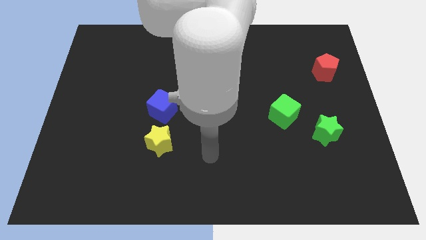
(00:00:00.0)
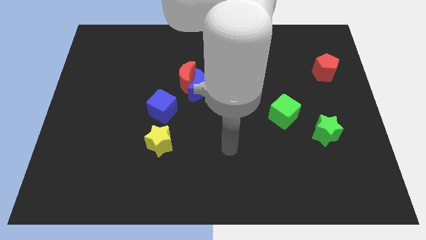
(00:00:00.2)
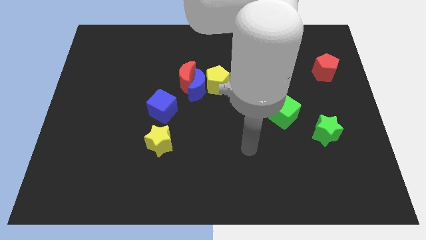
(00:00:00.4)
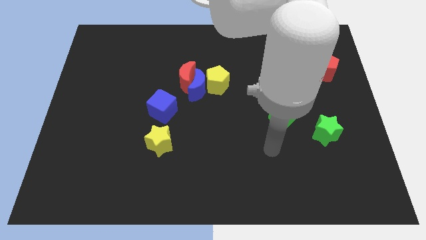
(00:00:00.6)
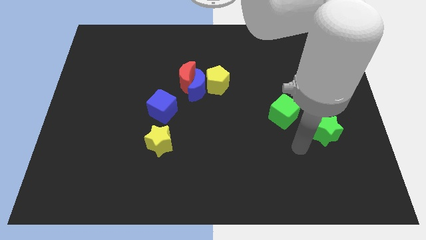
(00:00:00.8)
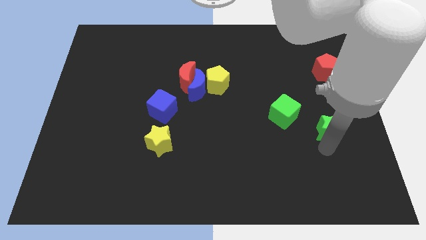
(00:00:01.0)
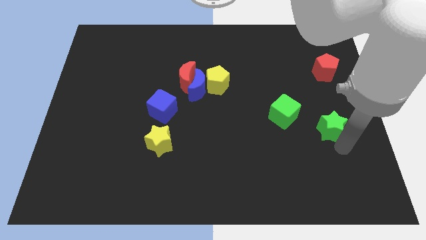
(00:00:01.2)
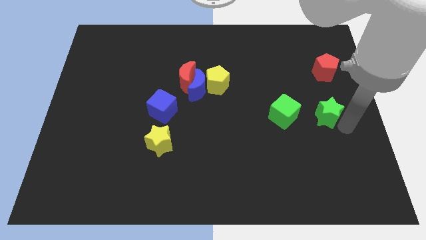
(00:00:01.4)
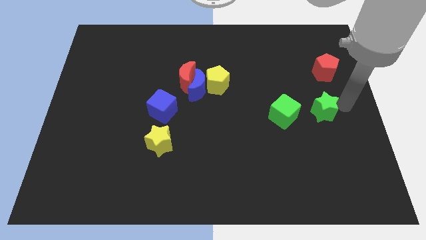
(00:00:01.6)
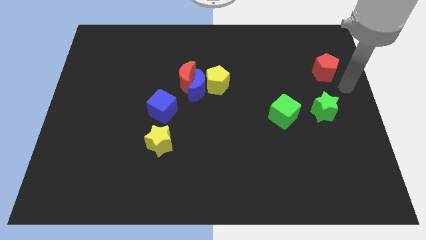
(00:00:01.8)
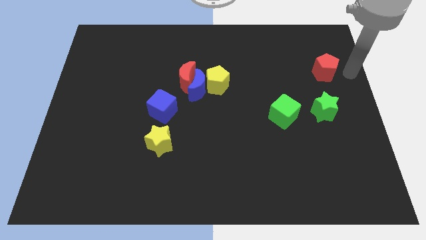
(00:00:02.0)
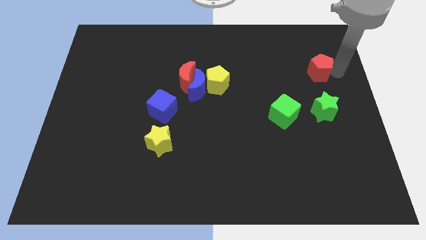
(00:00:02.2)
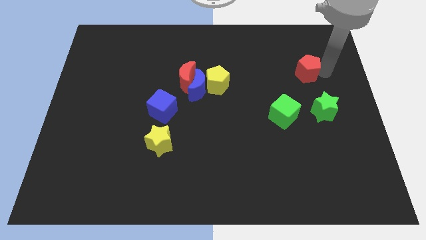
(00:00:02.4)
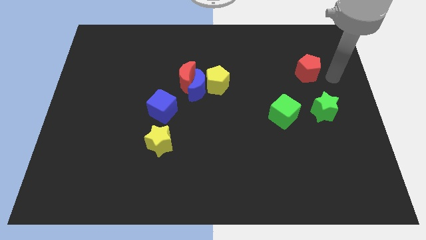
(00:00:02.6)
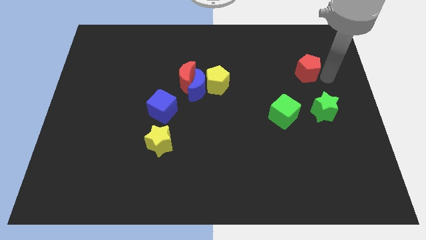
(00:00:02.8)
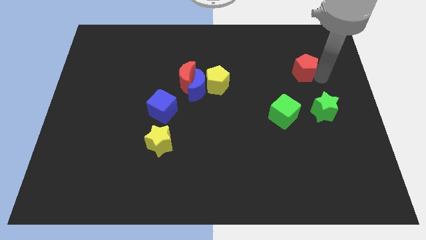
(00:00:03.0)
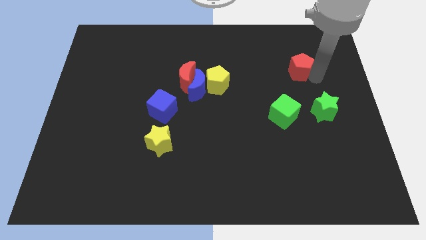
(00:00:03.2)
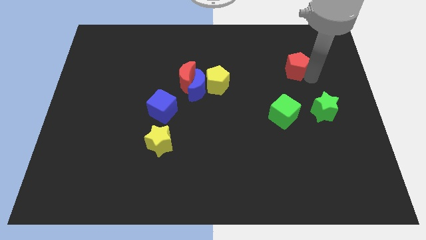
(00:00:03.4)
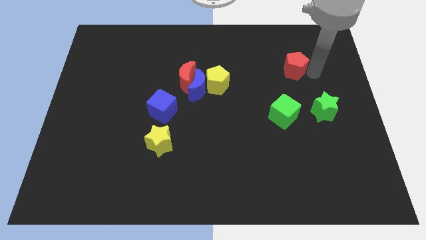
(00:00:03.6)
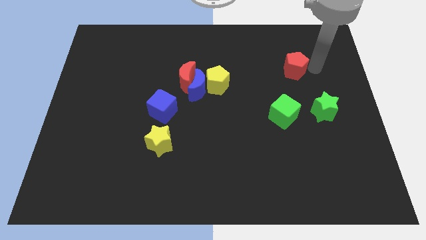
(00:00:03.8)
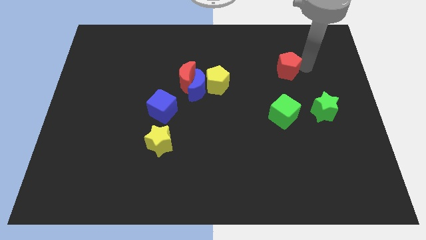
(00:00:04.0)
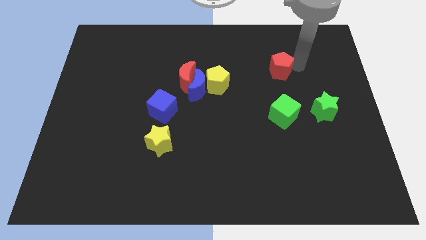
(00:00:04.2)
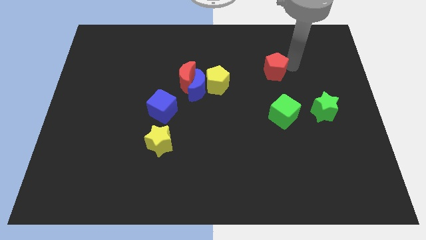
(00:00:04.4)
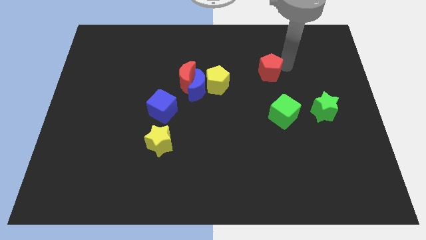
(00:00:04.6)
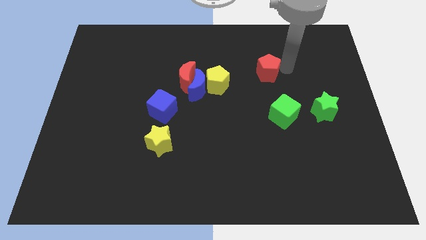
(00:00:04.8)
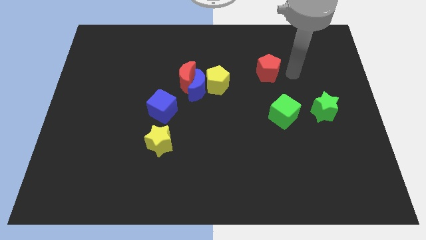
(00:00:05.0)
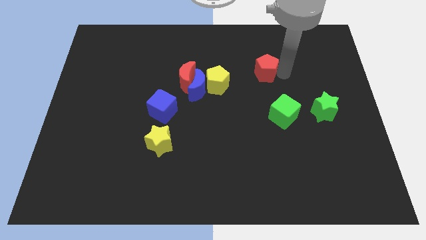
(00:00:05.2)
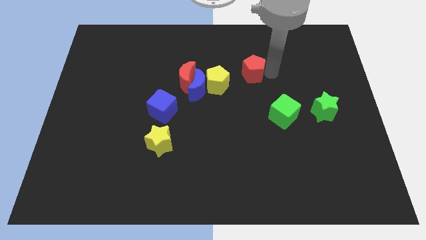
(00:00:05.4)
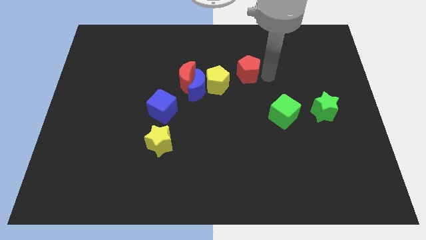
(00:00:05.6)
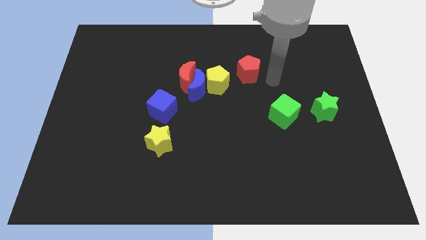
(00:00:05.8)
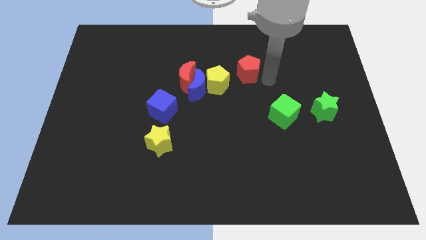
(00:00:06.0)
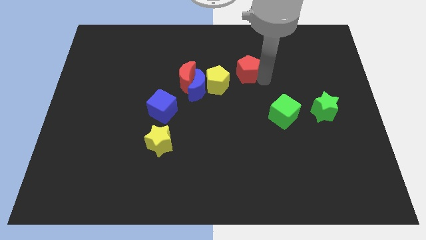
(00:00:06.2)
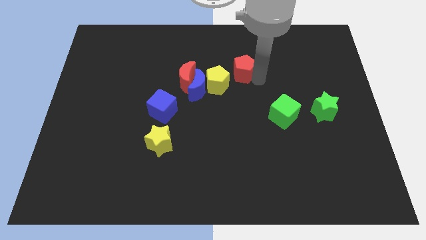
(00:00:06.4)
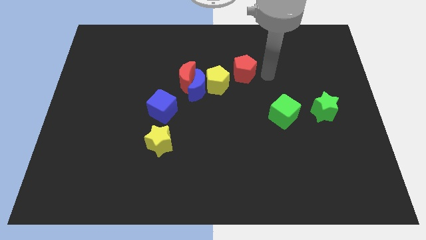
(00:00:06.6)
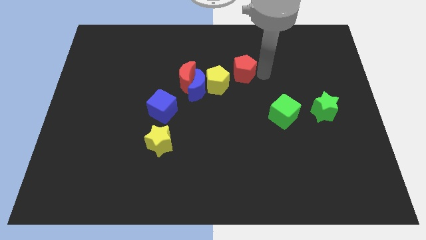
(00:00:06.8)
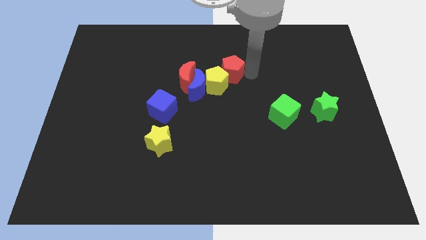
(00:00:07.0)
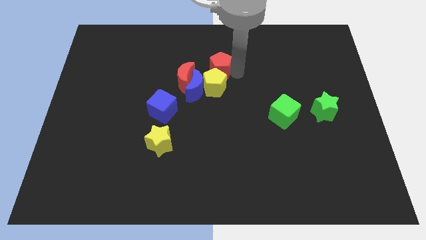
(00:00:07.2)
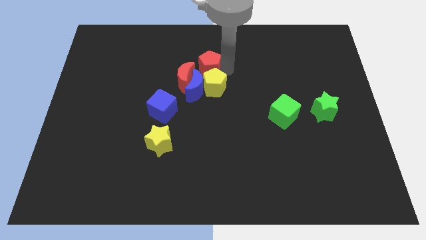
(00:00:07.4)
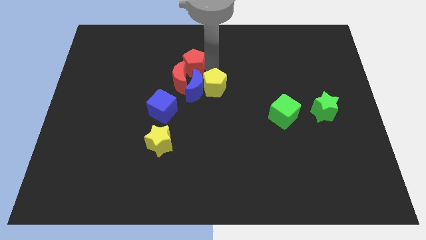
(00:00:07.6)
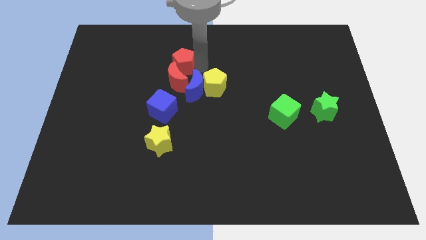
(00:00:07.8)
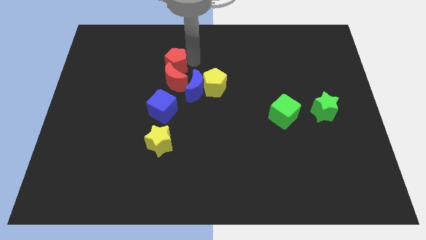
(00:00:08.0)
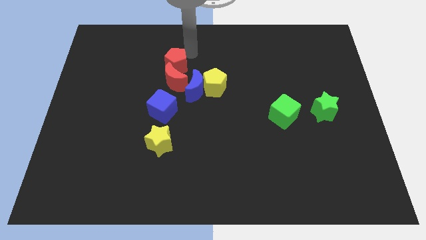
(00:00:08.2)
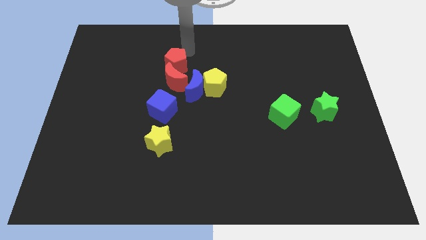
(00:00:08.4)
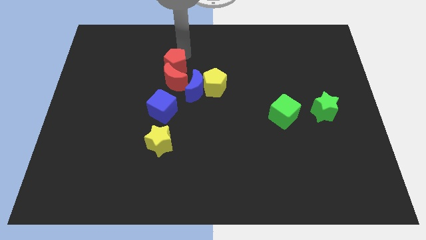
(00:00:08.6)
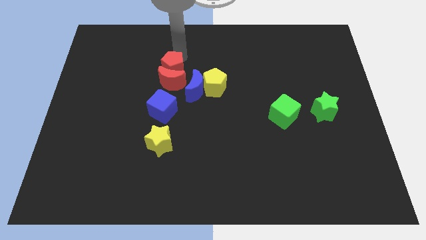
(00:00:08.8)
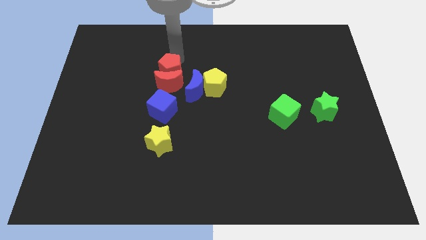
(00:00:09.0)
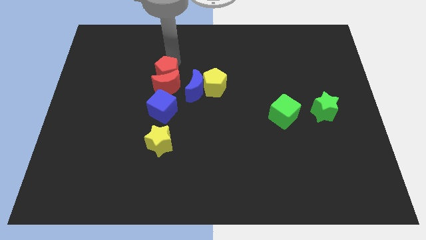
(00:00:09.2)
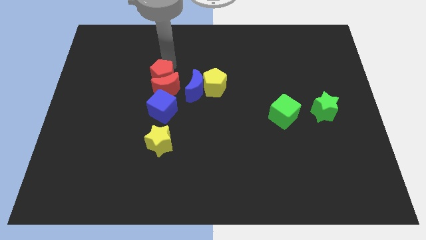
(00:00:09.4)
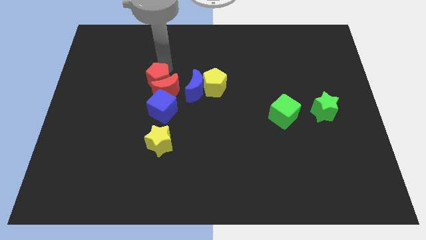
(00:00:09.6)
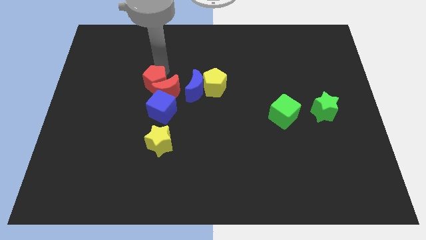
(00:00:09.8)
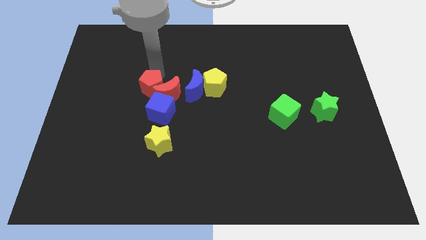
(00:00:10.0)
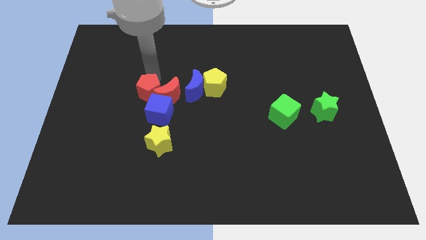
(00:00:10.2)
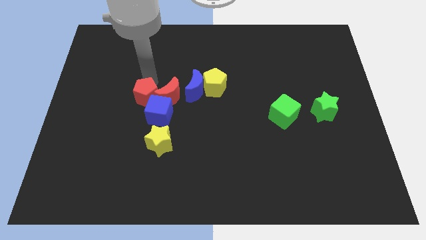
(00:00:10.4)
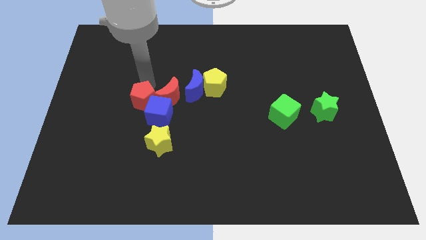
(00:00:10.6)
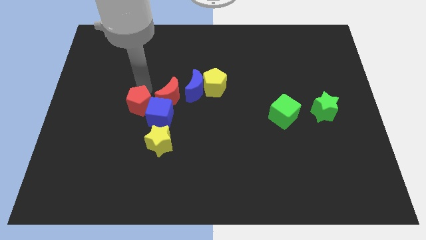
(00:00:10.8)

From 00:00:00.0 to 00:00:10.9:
slide the red pentagon to the top left of the yellow star

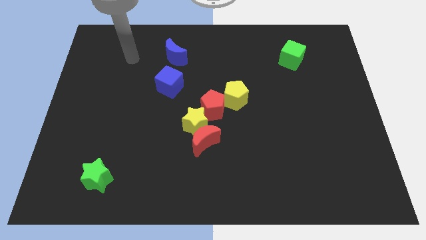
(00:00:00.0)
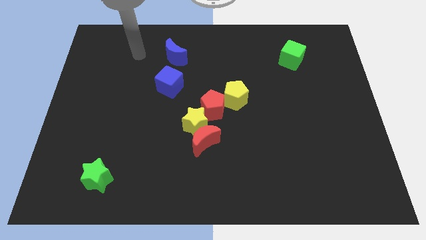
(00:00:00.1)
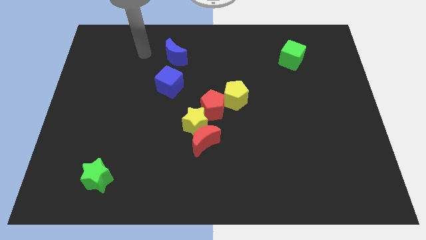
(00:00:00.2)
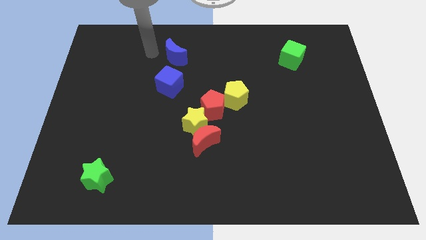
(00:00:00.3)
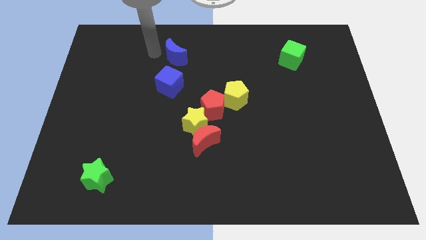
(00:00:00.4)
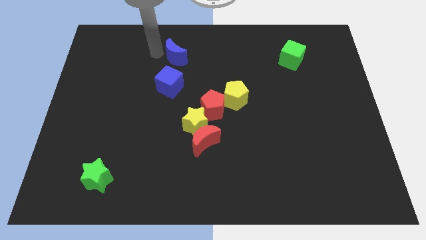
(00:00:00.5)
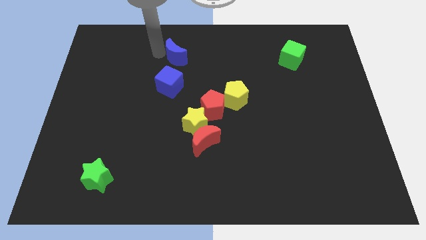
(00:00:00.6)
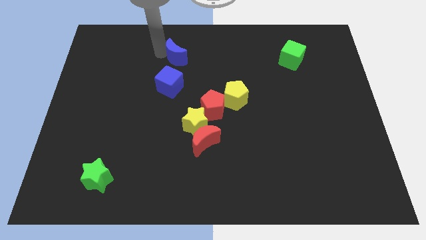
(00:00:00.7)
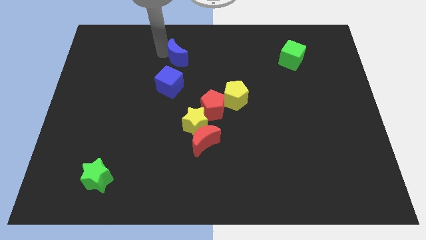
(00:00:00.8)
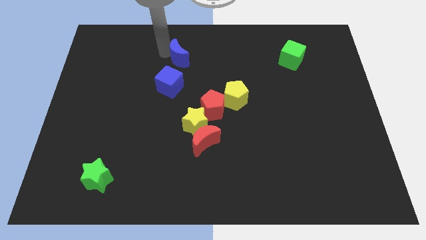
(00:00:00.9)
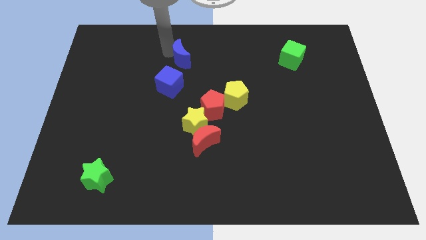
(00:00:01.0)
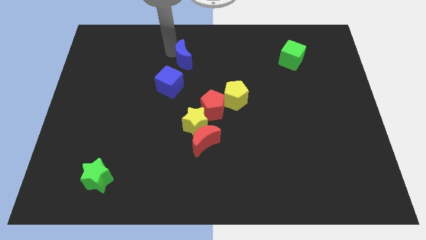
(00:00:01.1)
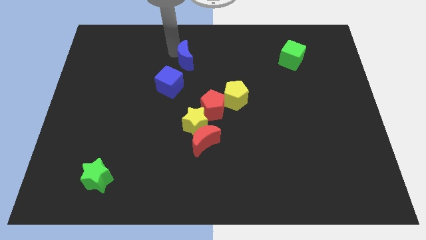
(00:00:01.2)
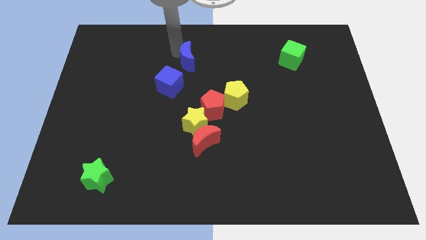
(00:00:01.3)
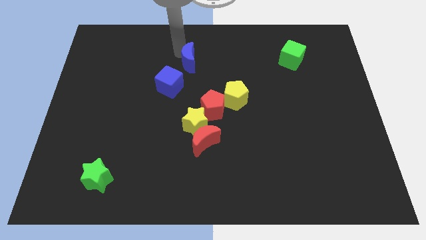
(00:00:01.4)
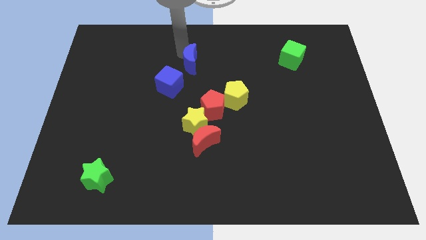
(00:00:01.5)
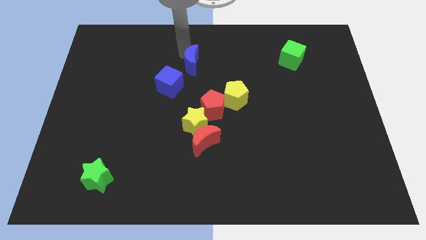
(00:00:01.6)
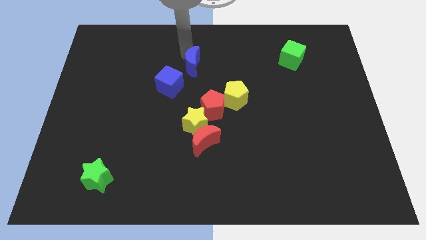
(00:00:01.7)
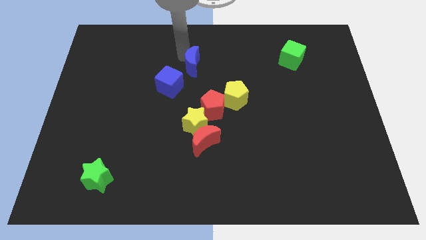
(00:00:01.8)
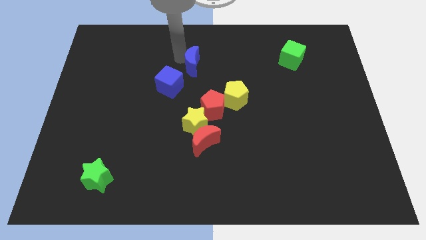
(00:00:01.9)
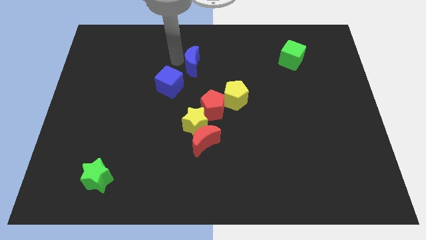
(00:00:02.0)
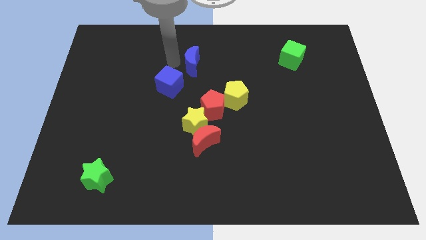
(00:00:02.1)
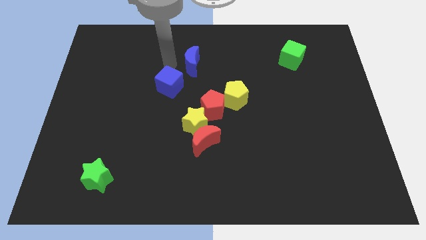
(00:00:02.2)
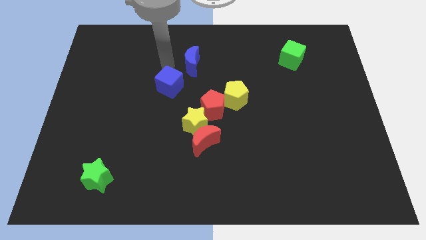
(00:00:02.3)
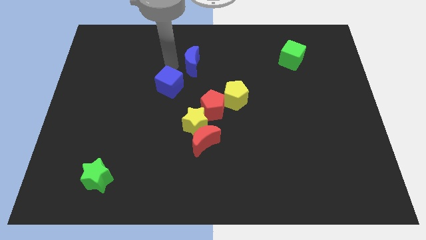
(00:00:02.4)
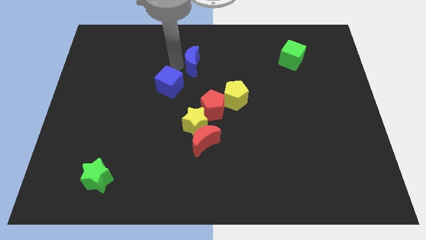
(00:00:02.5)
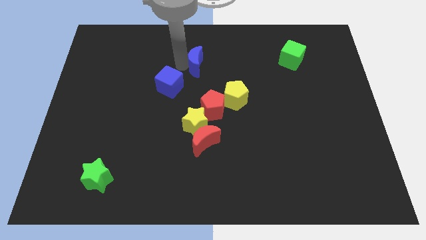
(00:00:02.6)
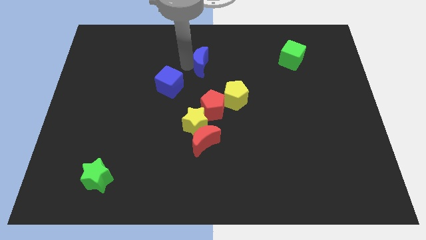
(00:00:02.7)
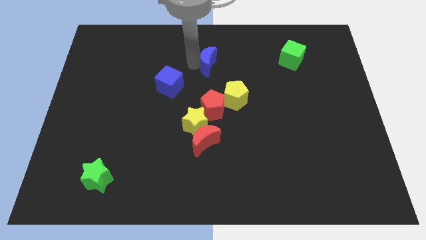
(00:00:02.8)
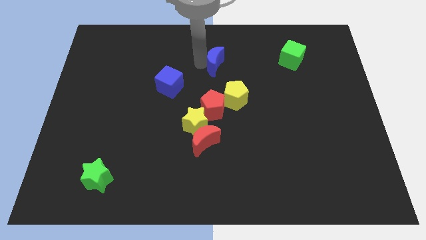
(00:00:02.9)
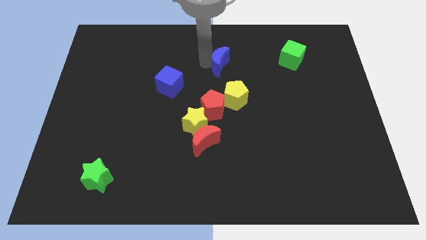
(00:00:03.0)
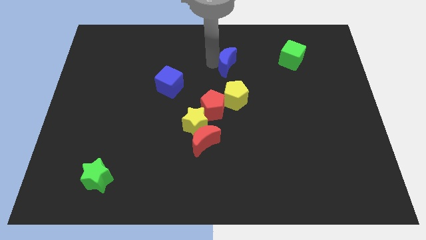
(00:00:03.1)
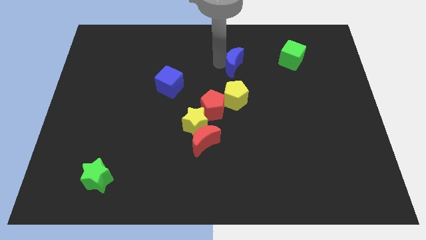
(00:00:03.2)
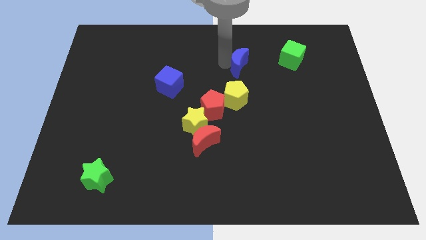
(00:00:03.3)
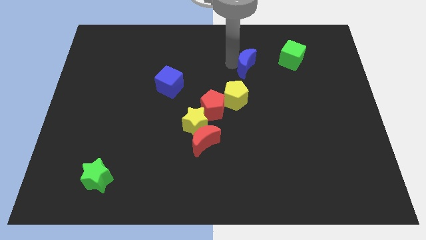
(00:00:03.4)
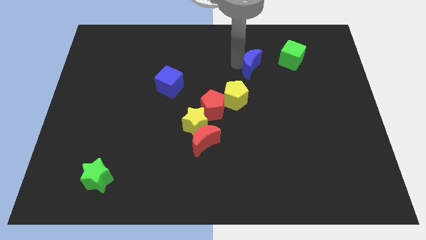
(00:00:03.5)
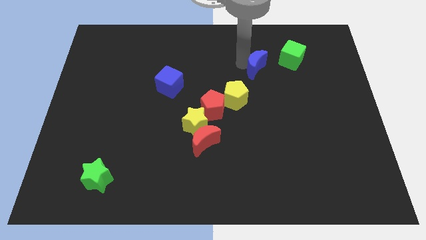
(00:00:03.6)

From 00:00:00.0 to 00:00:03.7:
move the blue moon to the bottom left of the green cube
